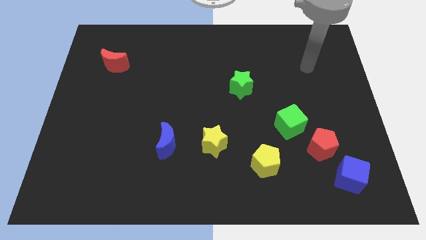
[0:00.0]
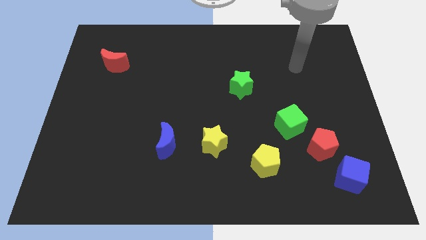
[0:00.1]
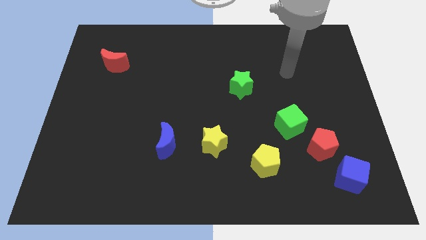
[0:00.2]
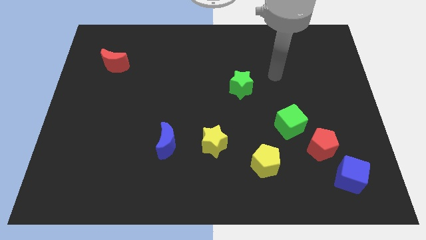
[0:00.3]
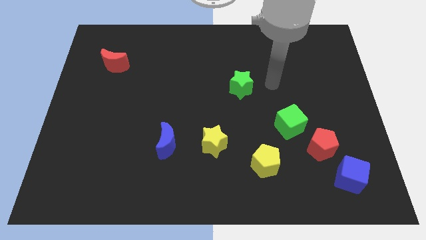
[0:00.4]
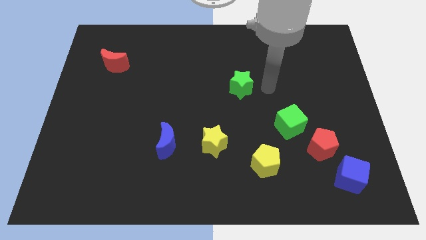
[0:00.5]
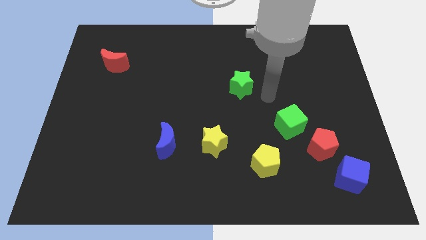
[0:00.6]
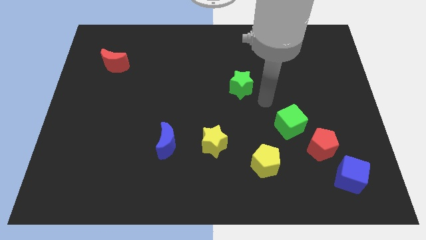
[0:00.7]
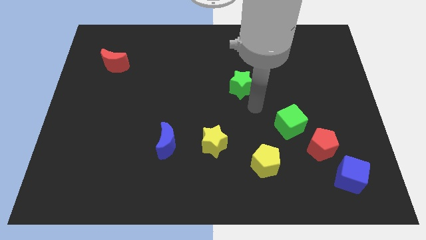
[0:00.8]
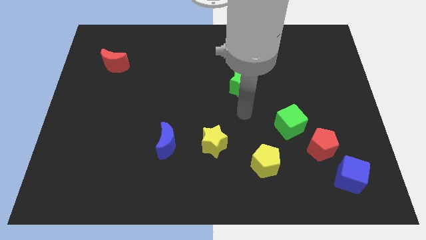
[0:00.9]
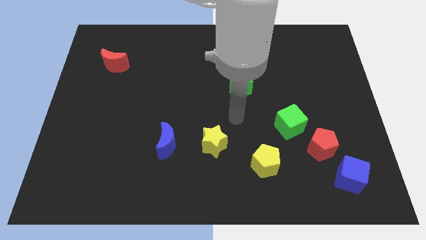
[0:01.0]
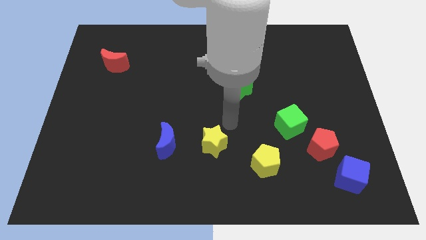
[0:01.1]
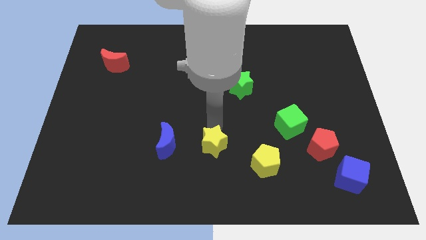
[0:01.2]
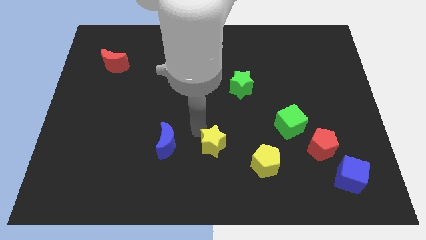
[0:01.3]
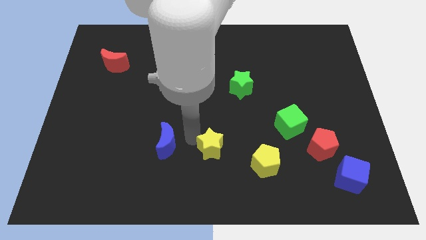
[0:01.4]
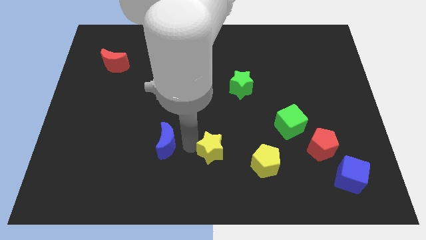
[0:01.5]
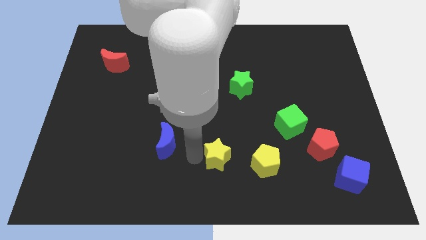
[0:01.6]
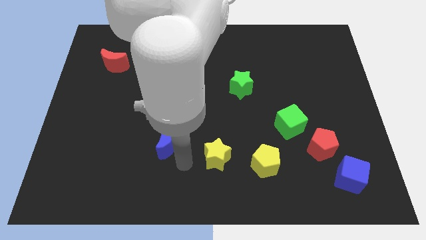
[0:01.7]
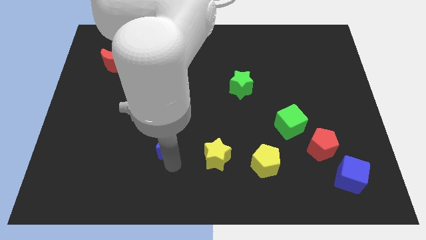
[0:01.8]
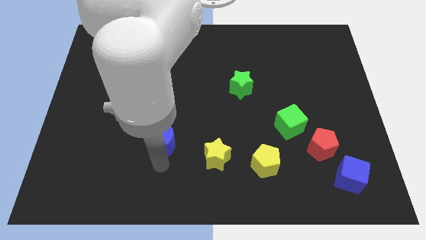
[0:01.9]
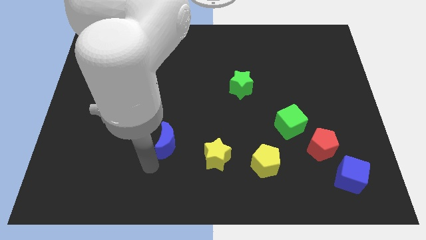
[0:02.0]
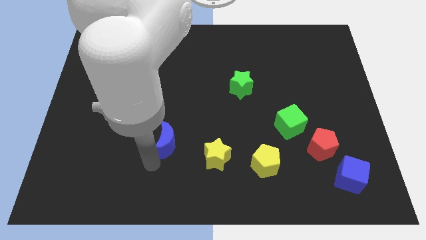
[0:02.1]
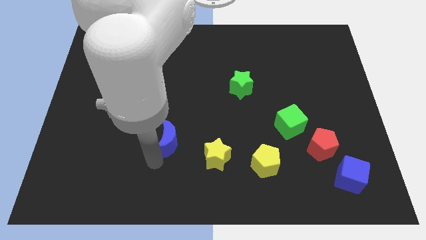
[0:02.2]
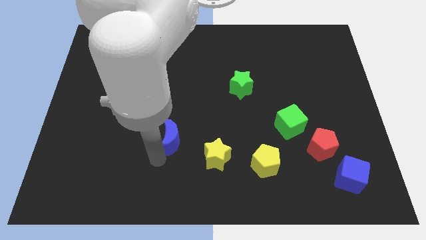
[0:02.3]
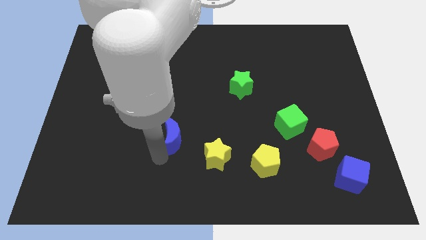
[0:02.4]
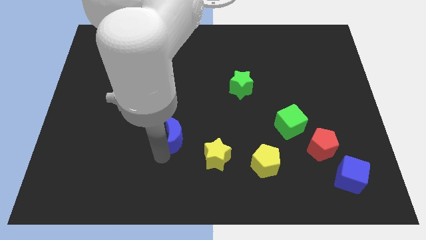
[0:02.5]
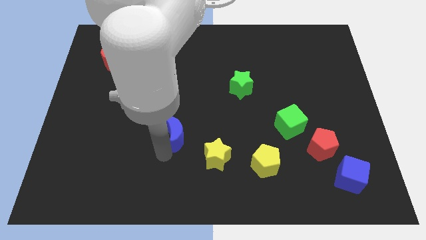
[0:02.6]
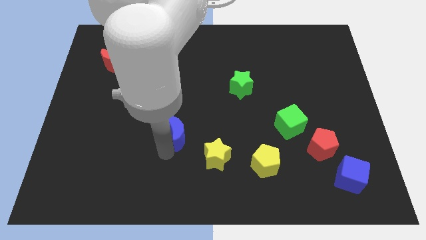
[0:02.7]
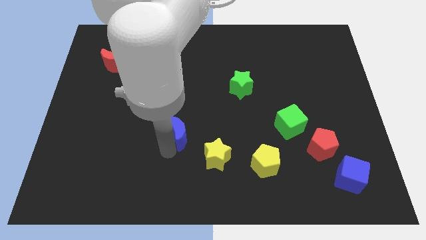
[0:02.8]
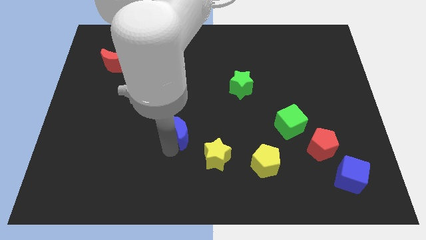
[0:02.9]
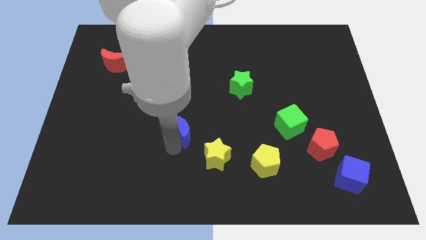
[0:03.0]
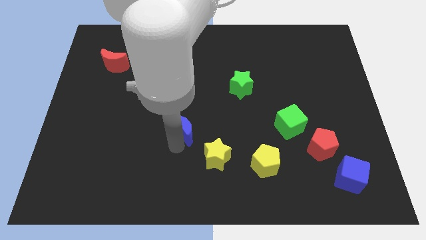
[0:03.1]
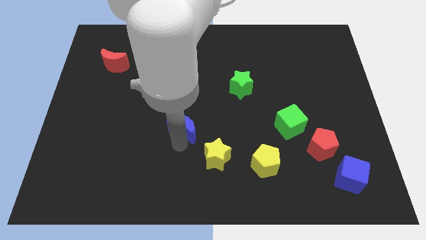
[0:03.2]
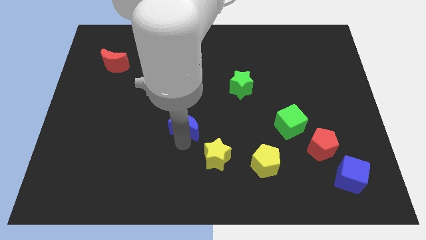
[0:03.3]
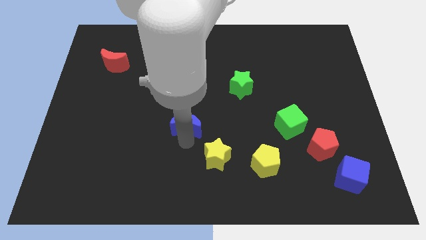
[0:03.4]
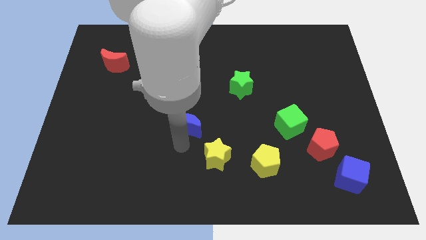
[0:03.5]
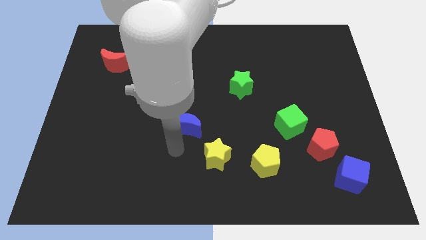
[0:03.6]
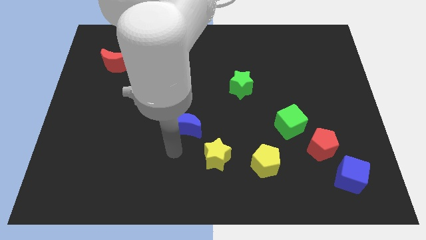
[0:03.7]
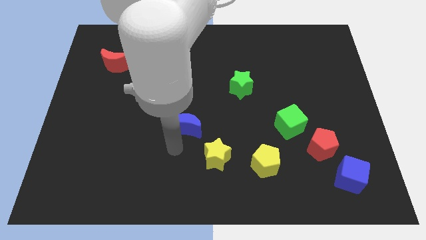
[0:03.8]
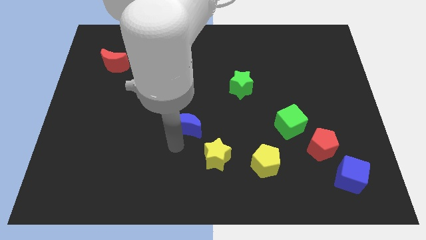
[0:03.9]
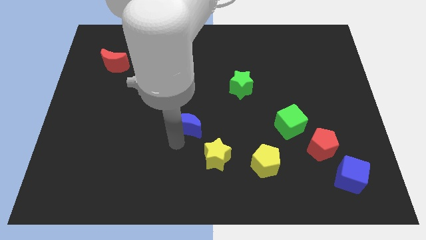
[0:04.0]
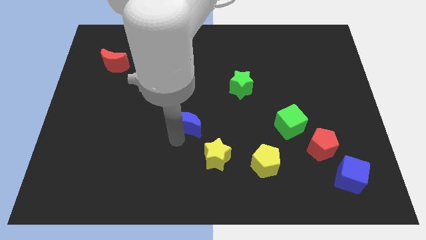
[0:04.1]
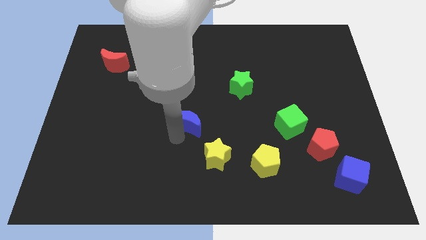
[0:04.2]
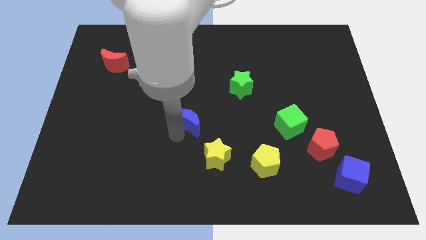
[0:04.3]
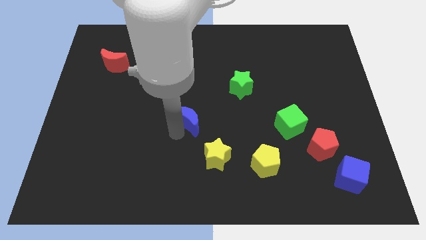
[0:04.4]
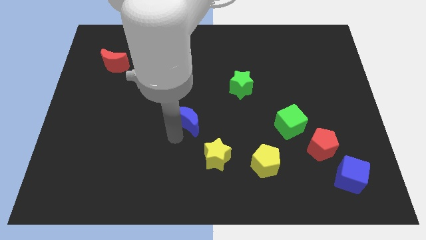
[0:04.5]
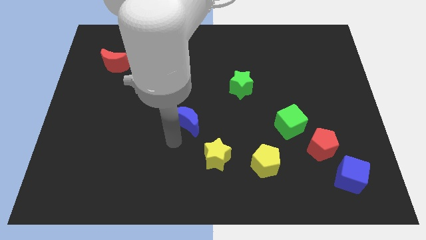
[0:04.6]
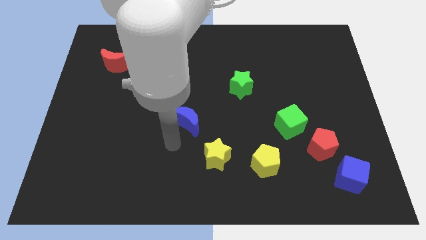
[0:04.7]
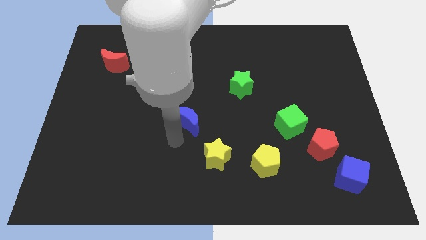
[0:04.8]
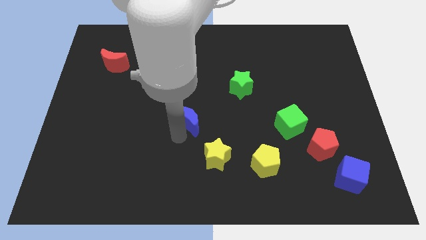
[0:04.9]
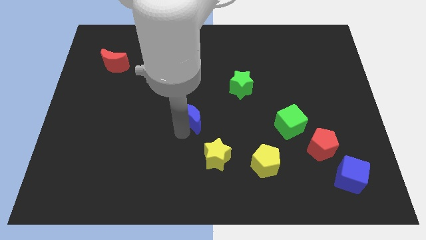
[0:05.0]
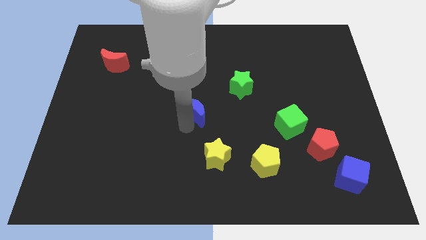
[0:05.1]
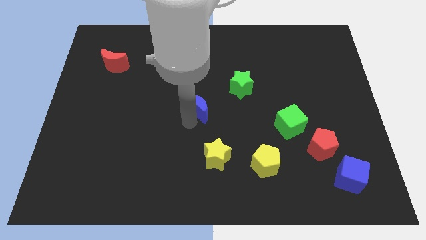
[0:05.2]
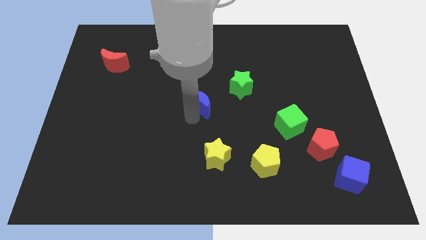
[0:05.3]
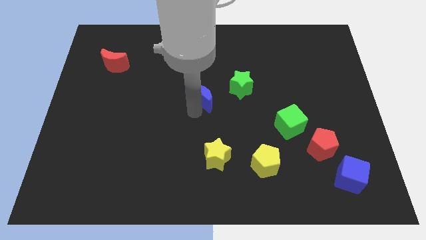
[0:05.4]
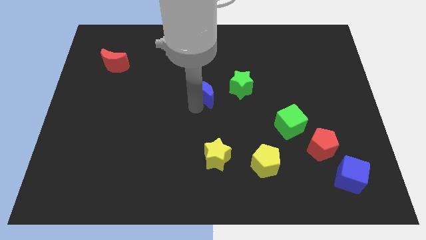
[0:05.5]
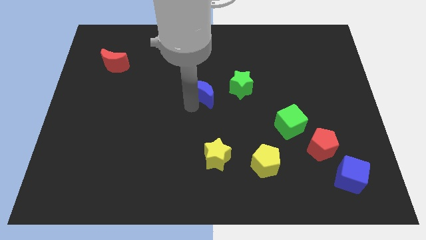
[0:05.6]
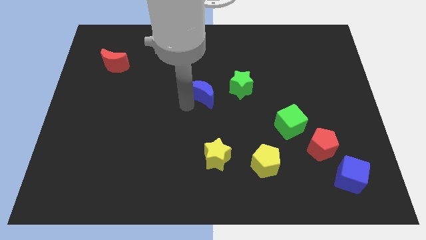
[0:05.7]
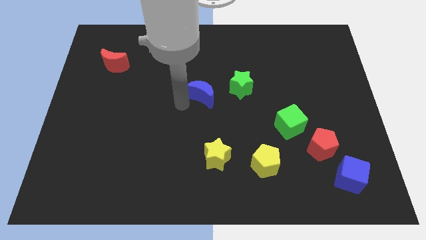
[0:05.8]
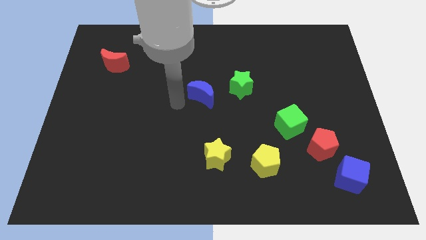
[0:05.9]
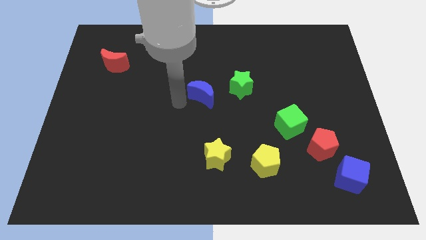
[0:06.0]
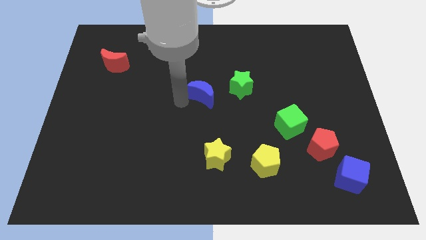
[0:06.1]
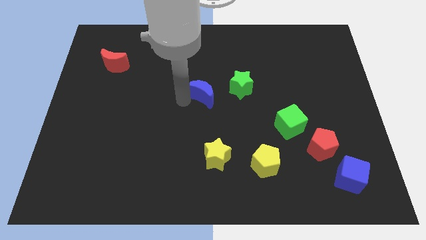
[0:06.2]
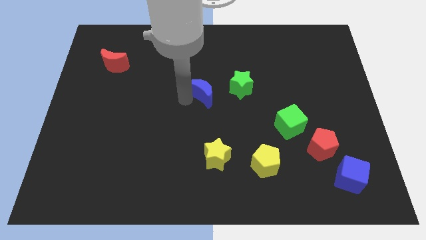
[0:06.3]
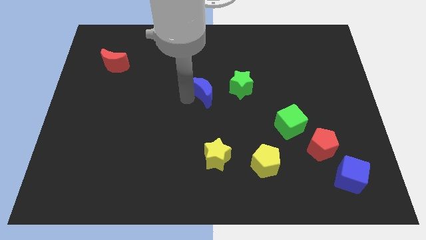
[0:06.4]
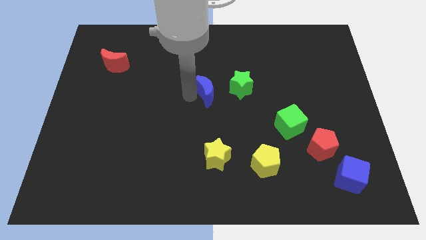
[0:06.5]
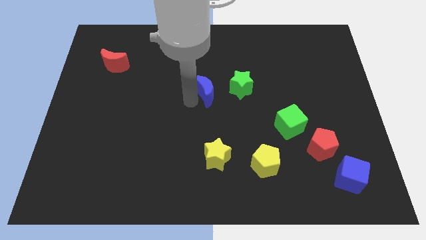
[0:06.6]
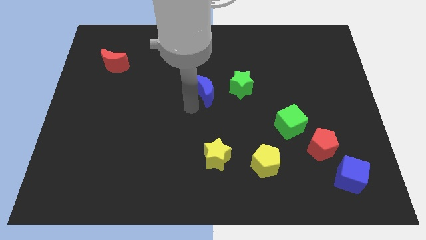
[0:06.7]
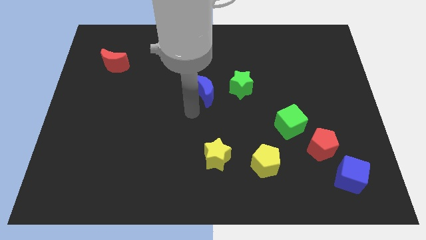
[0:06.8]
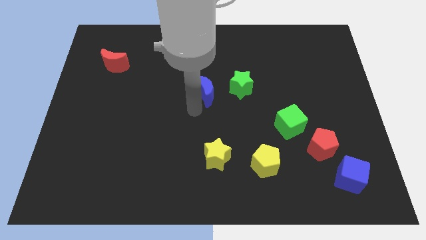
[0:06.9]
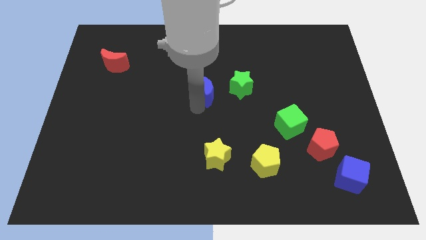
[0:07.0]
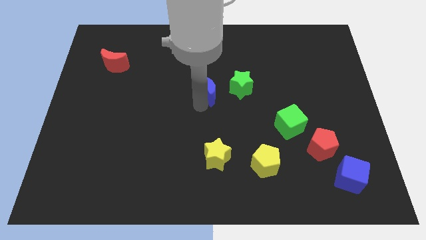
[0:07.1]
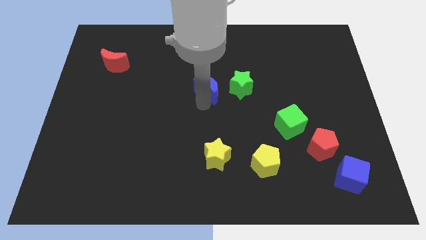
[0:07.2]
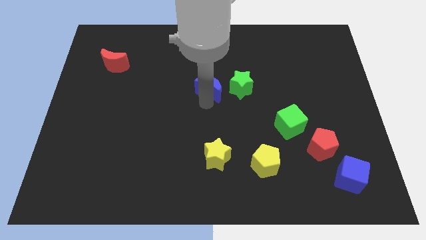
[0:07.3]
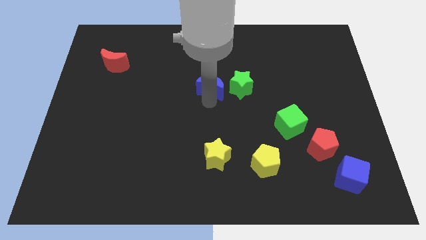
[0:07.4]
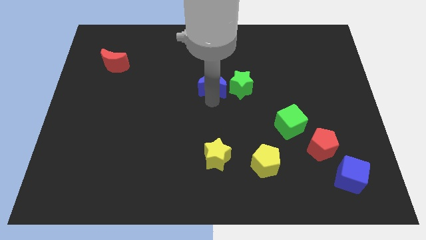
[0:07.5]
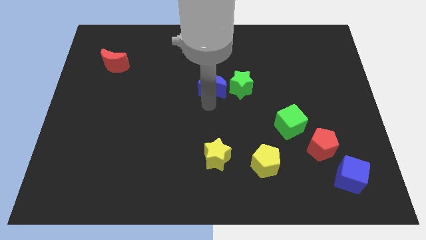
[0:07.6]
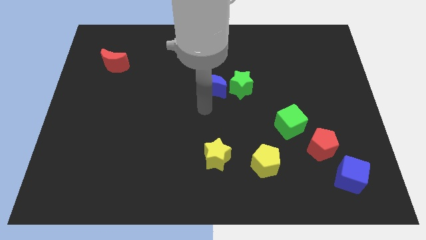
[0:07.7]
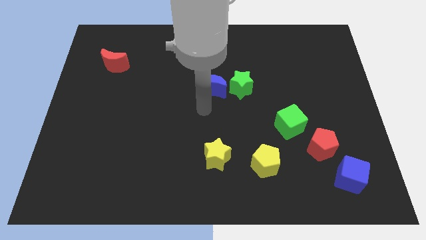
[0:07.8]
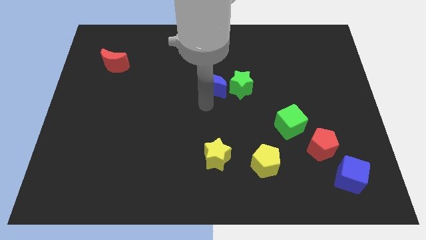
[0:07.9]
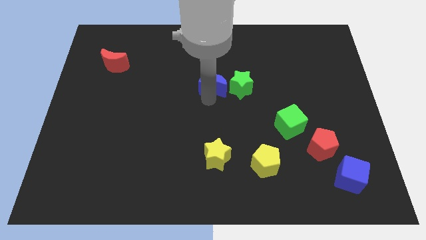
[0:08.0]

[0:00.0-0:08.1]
move the blue moon to the top left of the green star

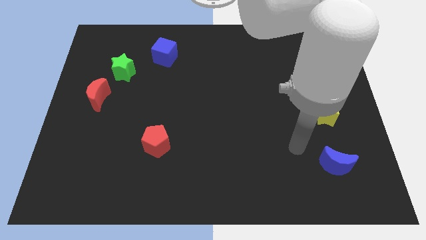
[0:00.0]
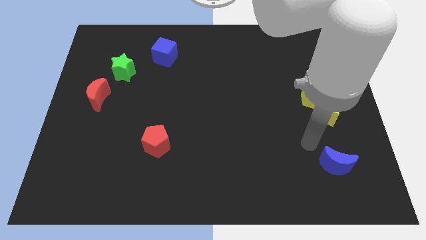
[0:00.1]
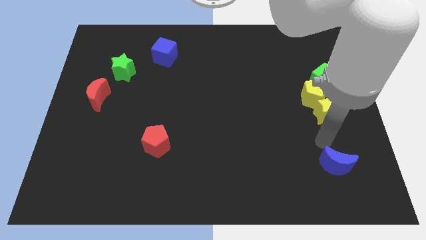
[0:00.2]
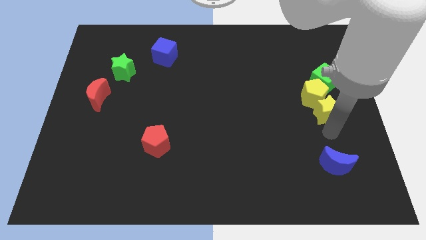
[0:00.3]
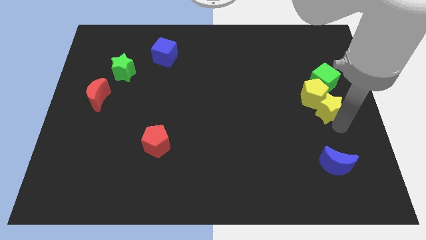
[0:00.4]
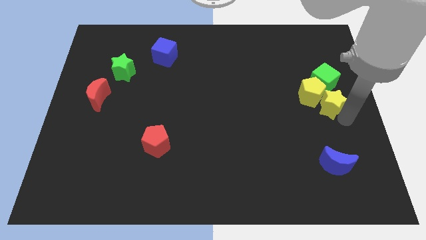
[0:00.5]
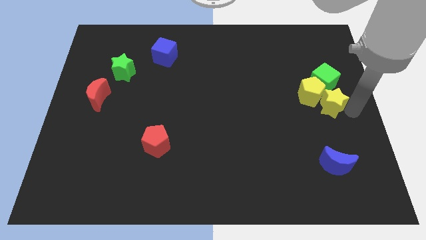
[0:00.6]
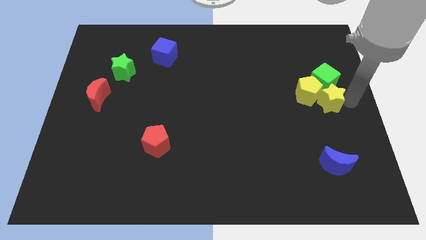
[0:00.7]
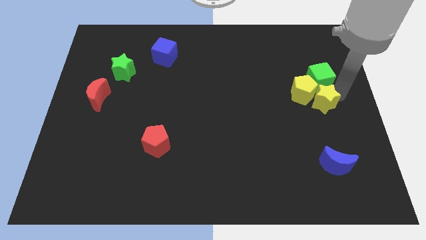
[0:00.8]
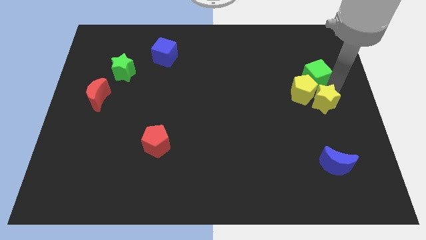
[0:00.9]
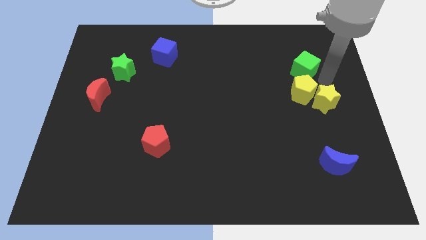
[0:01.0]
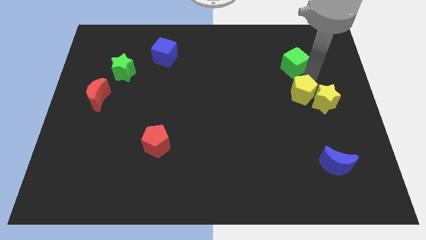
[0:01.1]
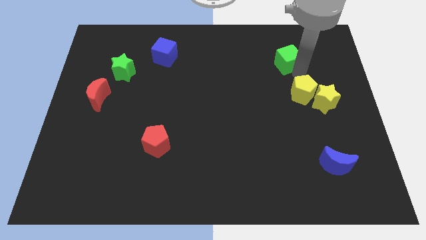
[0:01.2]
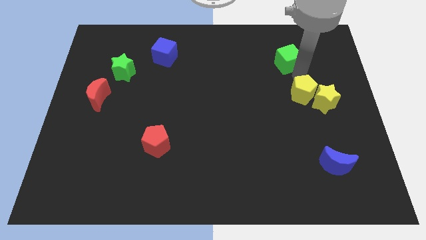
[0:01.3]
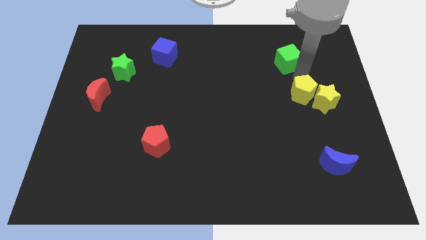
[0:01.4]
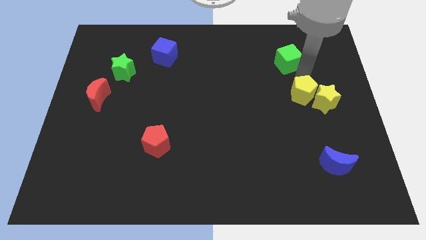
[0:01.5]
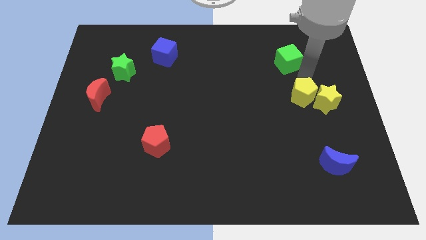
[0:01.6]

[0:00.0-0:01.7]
put the yellow pentagon to the bottom left of the yellow star
